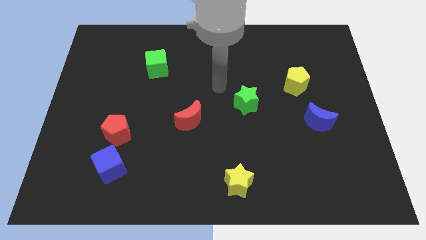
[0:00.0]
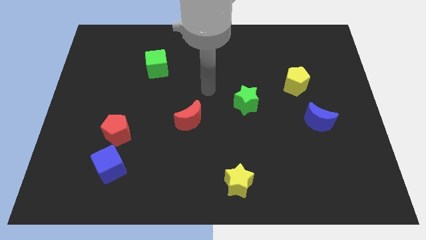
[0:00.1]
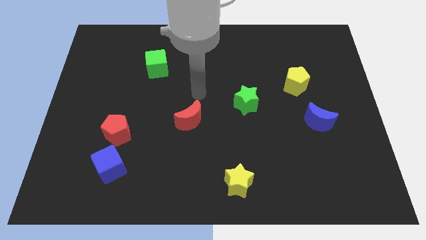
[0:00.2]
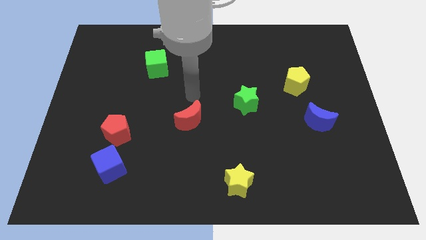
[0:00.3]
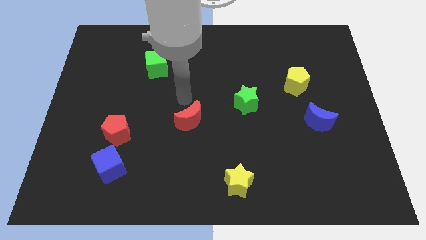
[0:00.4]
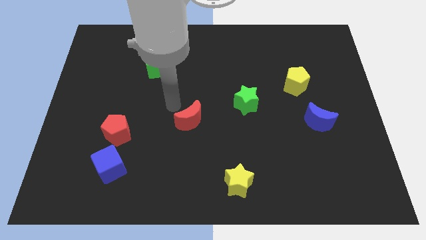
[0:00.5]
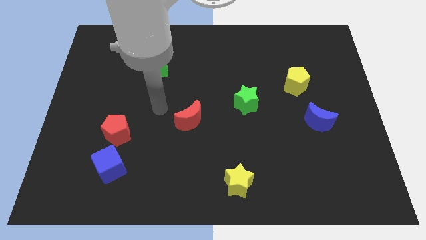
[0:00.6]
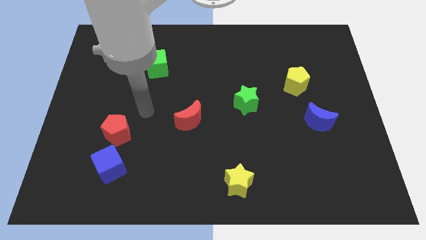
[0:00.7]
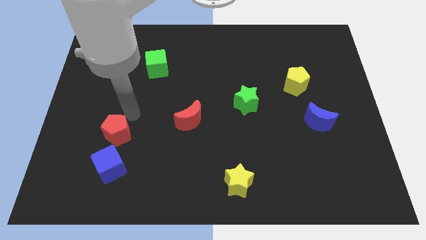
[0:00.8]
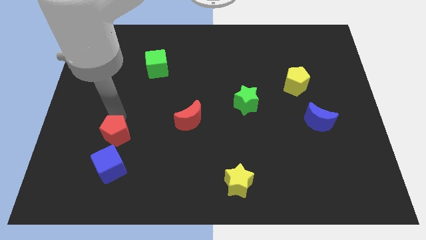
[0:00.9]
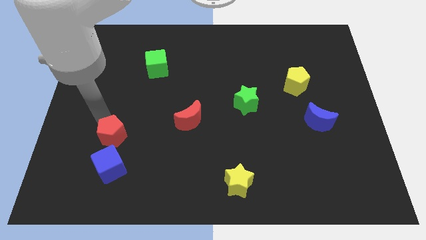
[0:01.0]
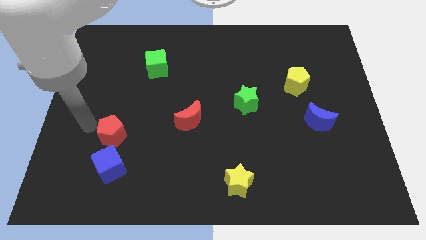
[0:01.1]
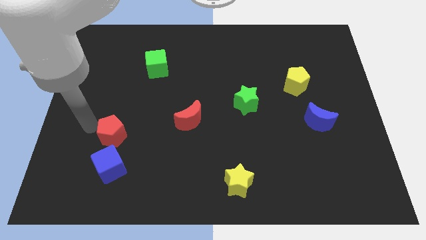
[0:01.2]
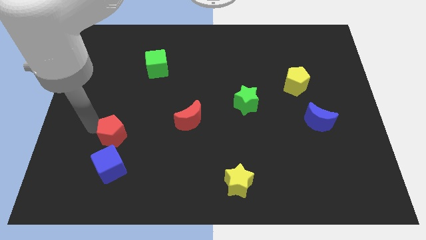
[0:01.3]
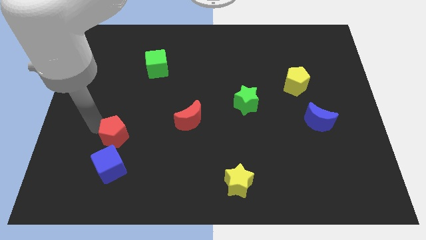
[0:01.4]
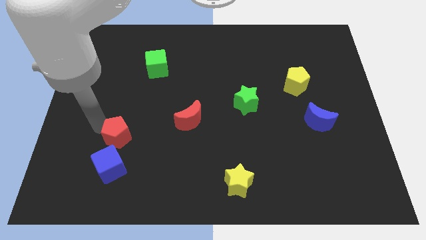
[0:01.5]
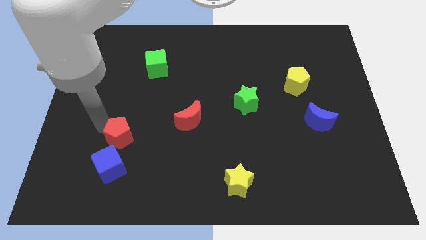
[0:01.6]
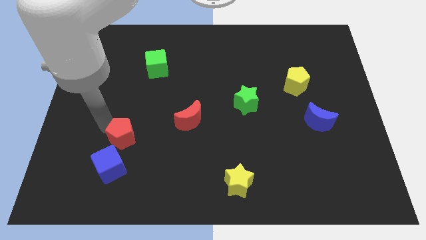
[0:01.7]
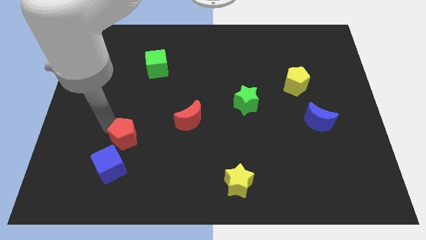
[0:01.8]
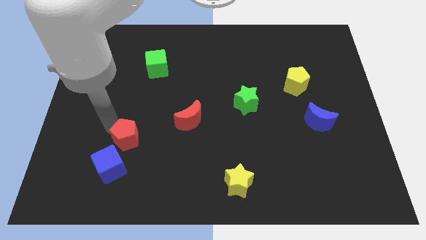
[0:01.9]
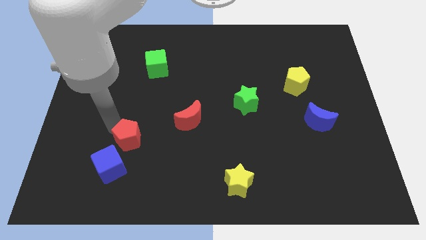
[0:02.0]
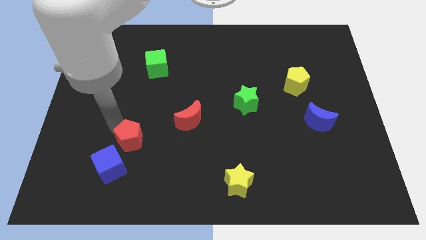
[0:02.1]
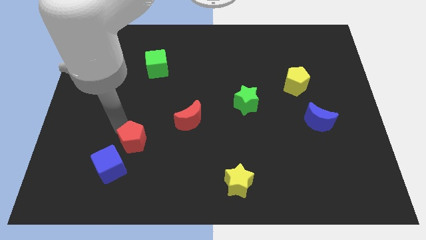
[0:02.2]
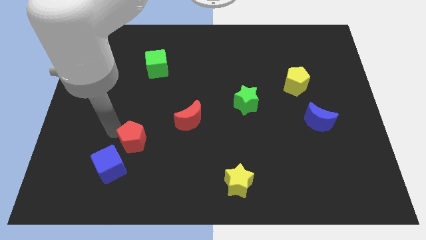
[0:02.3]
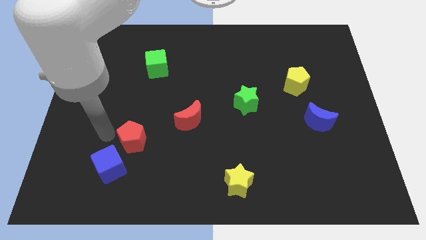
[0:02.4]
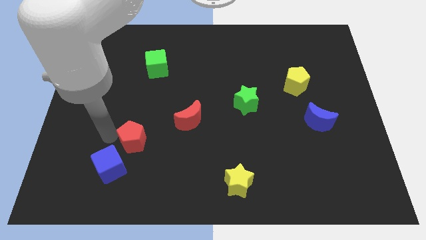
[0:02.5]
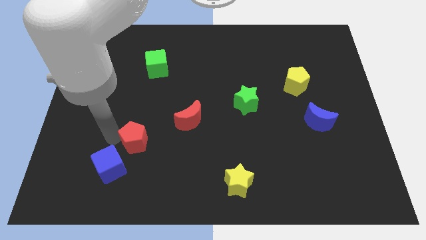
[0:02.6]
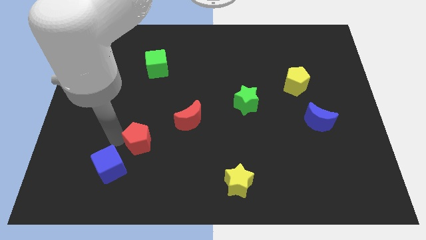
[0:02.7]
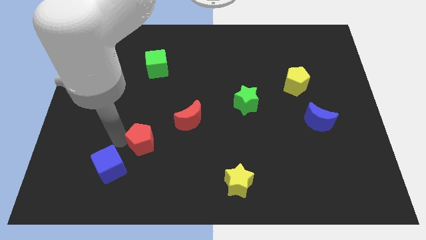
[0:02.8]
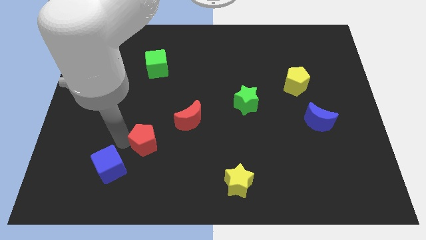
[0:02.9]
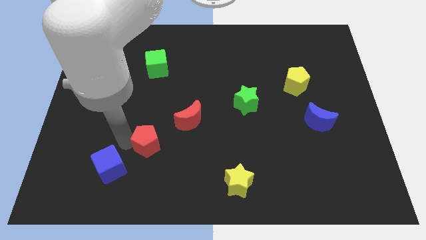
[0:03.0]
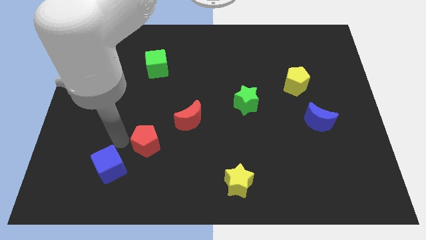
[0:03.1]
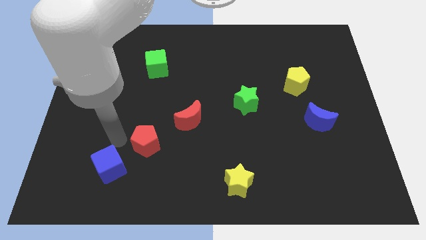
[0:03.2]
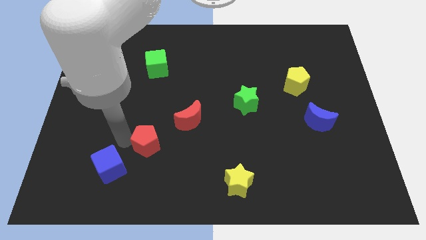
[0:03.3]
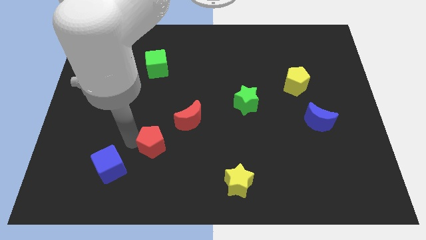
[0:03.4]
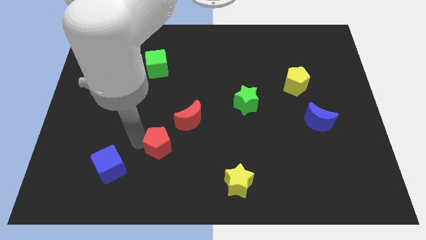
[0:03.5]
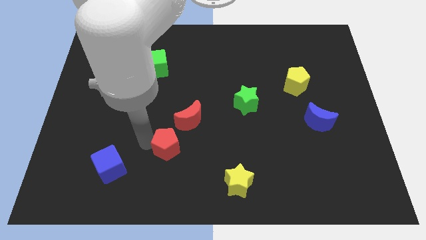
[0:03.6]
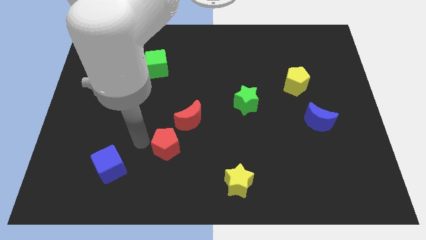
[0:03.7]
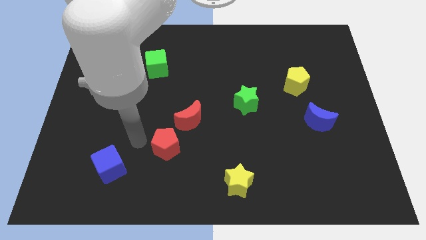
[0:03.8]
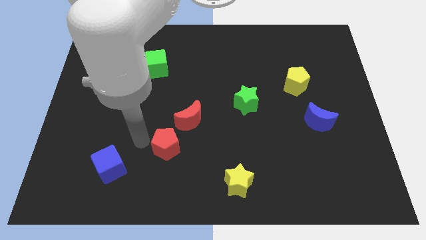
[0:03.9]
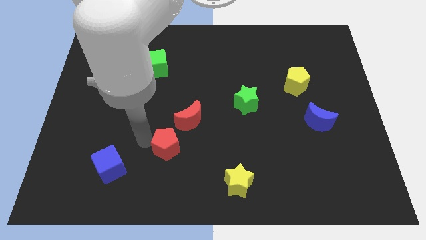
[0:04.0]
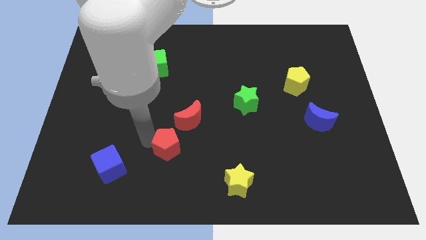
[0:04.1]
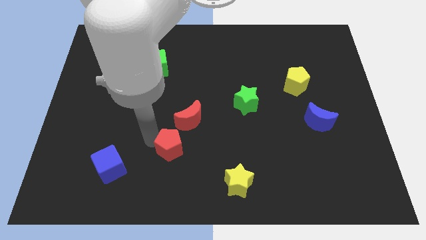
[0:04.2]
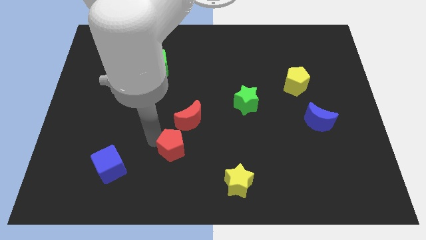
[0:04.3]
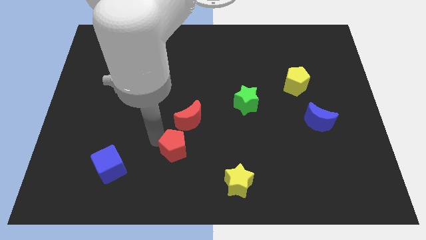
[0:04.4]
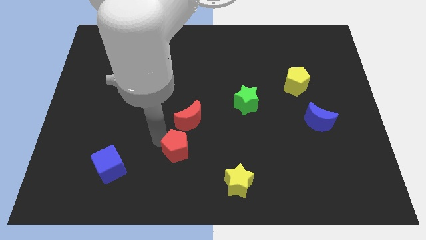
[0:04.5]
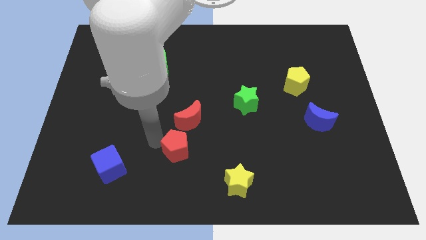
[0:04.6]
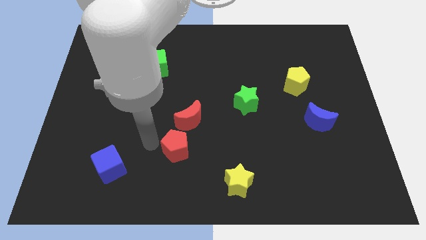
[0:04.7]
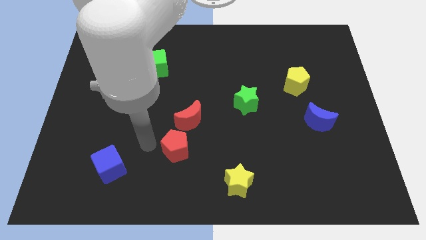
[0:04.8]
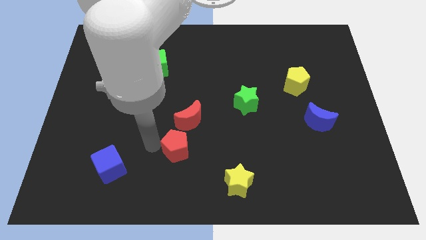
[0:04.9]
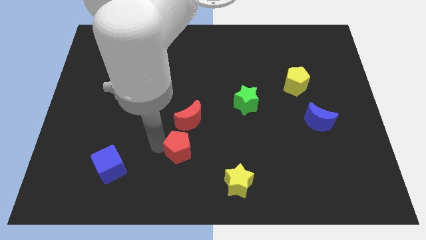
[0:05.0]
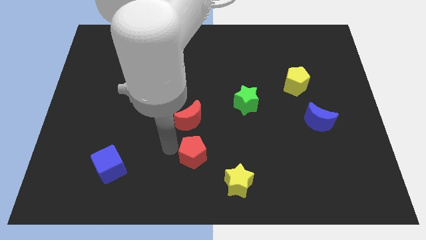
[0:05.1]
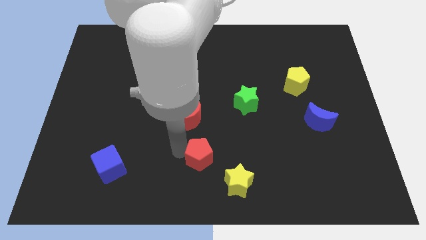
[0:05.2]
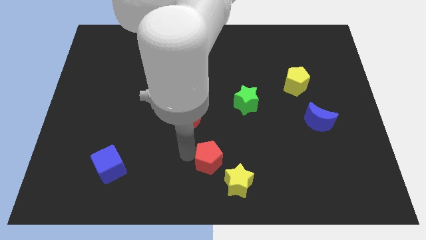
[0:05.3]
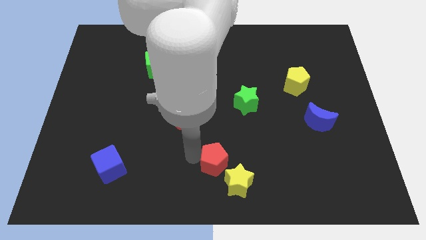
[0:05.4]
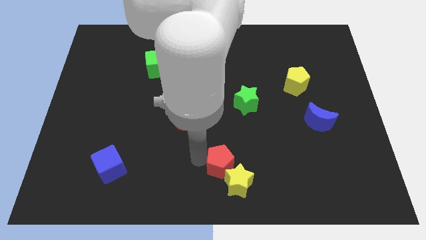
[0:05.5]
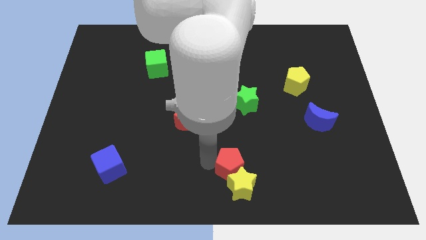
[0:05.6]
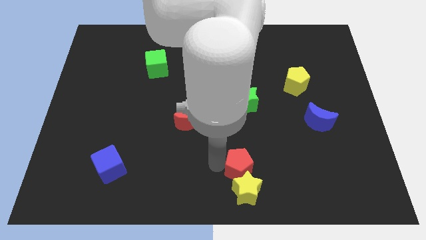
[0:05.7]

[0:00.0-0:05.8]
move the red pentagon to the top right side of the yellow star

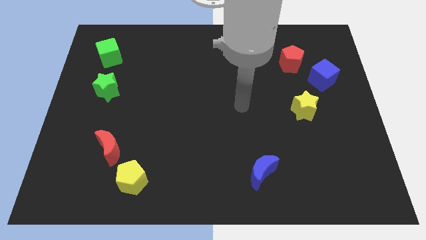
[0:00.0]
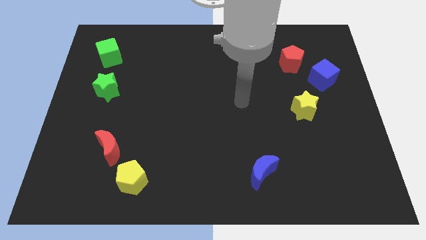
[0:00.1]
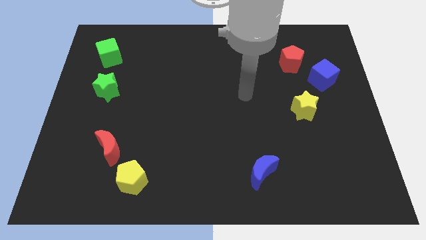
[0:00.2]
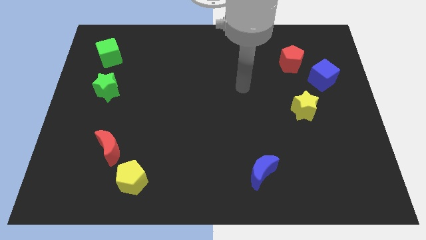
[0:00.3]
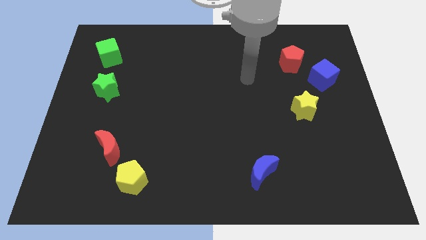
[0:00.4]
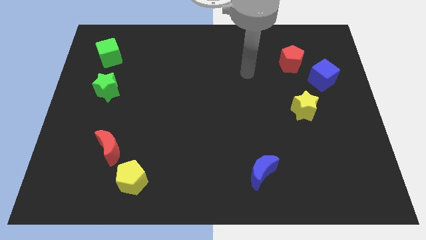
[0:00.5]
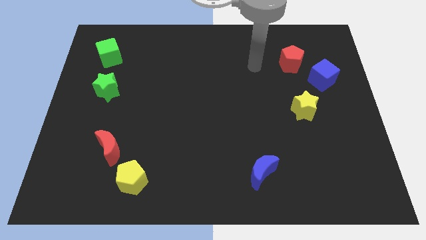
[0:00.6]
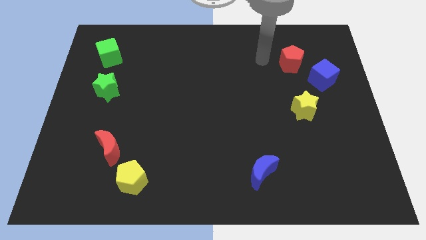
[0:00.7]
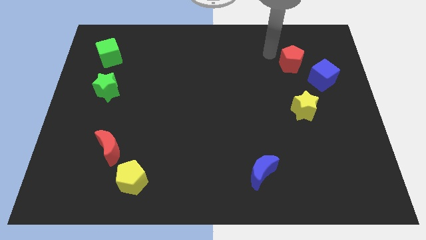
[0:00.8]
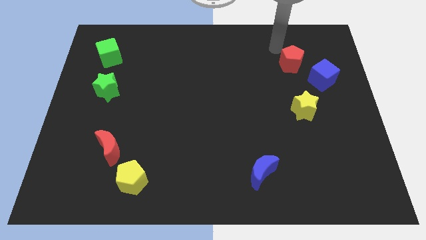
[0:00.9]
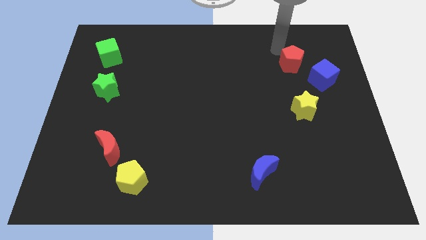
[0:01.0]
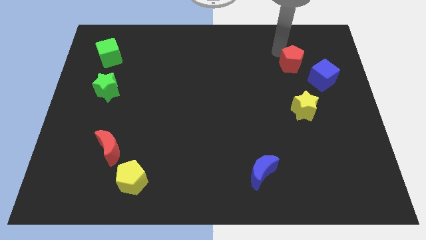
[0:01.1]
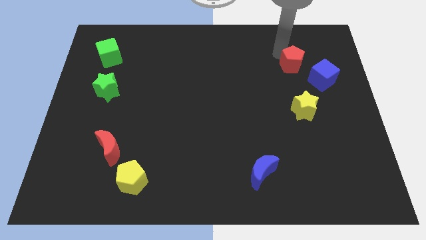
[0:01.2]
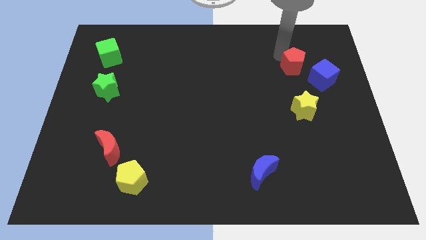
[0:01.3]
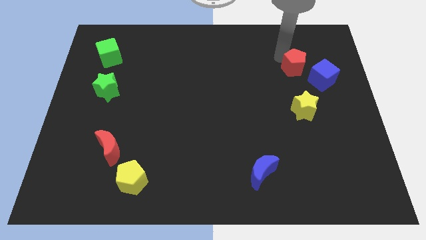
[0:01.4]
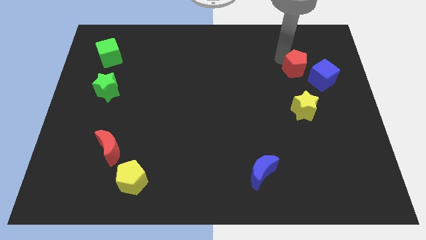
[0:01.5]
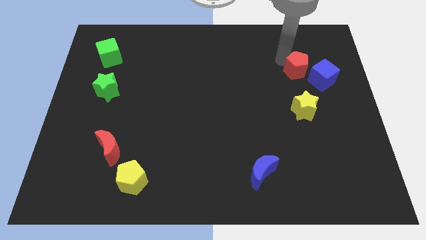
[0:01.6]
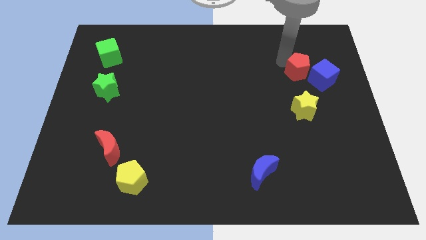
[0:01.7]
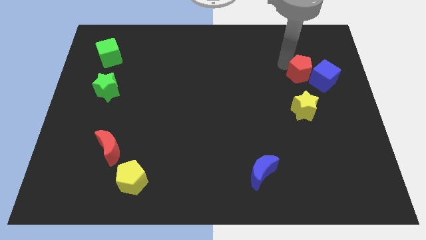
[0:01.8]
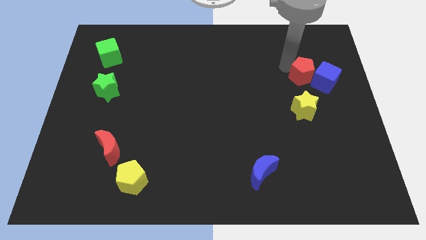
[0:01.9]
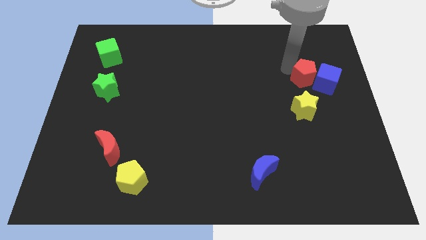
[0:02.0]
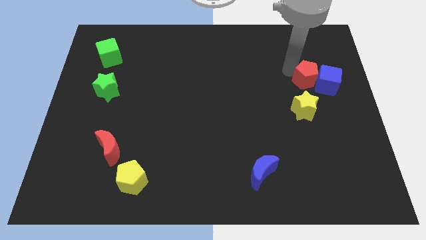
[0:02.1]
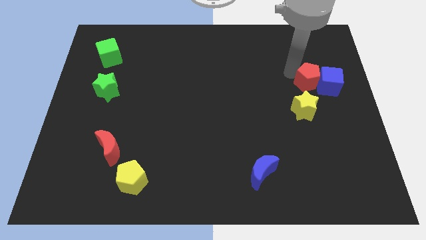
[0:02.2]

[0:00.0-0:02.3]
push the red pentagon to the top right of the yellow star
